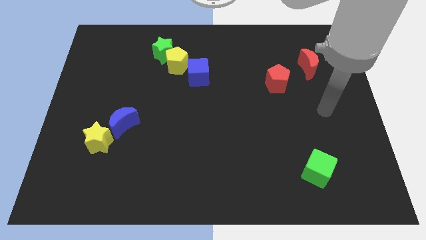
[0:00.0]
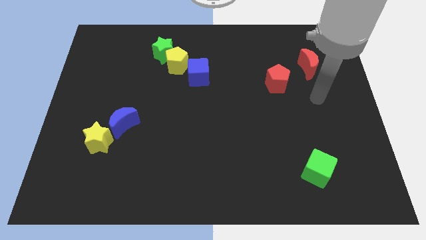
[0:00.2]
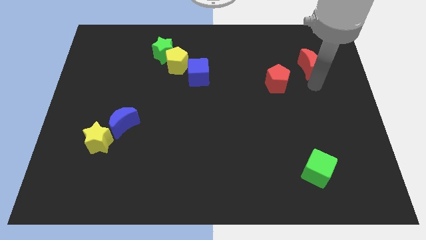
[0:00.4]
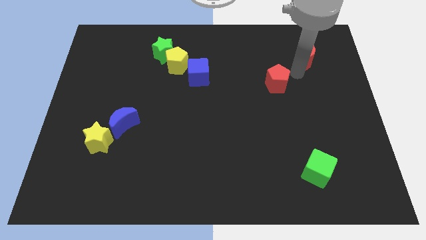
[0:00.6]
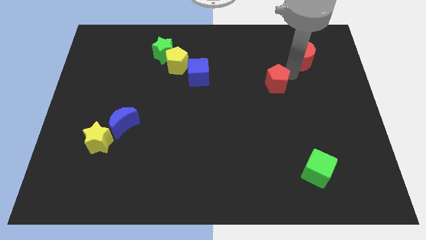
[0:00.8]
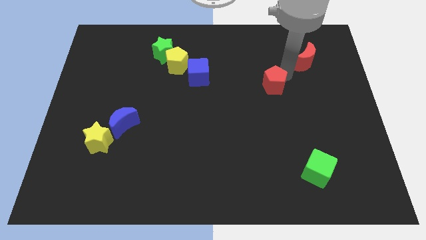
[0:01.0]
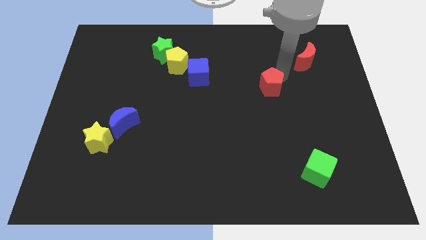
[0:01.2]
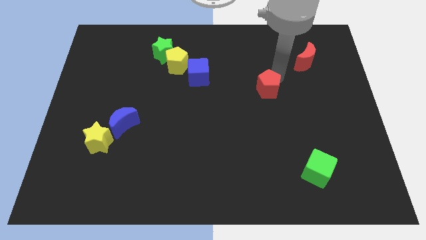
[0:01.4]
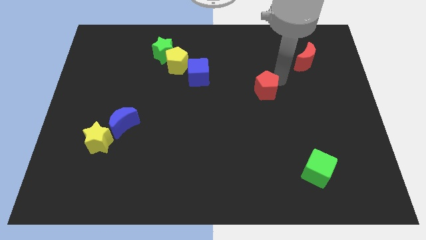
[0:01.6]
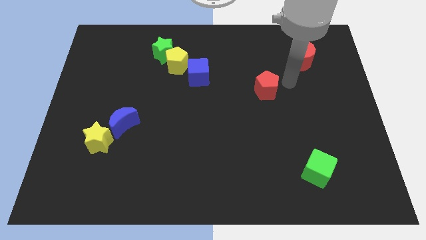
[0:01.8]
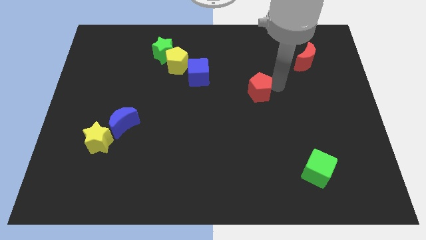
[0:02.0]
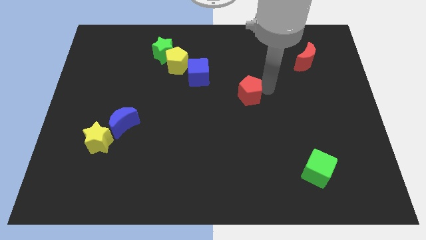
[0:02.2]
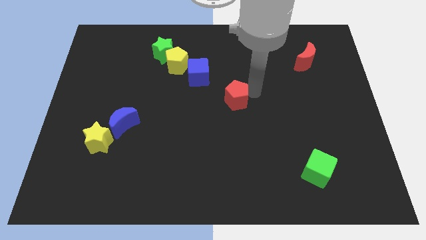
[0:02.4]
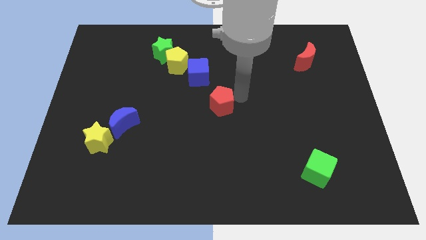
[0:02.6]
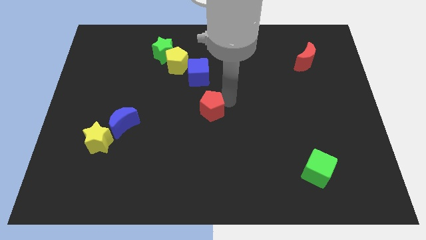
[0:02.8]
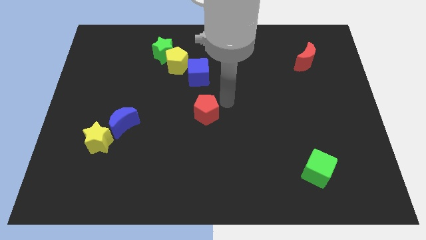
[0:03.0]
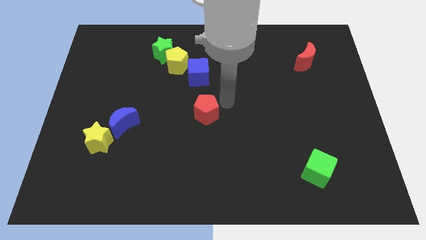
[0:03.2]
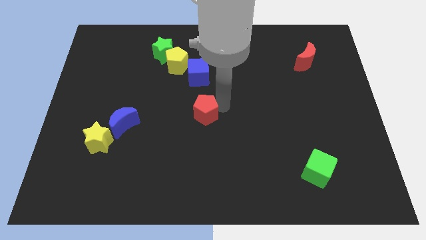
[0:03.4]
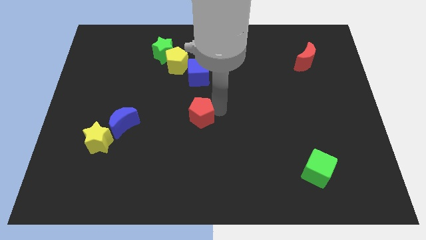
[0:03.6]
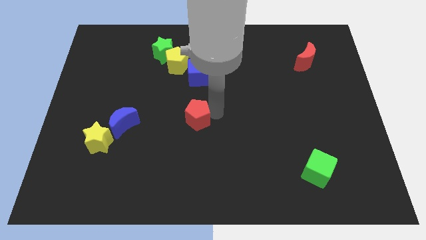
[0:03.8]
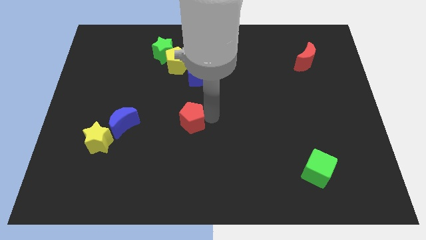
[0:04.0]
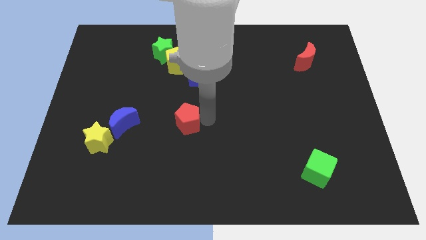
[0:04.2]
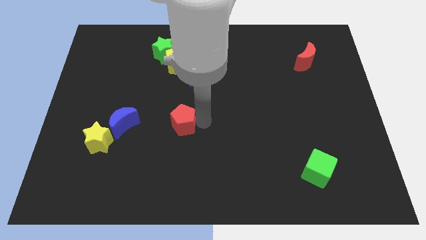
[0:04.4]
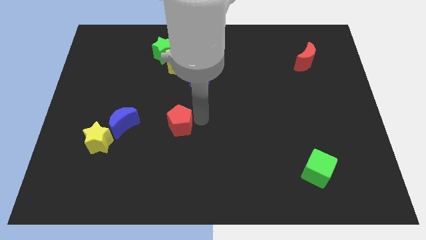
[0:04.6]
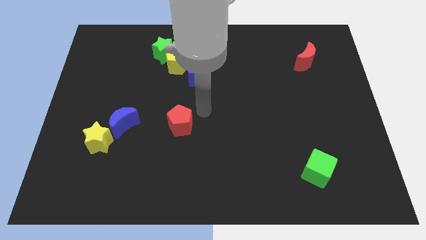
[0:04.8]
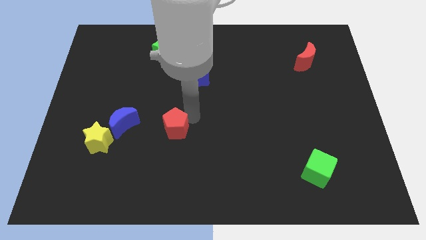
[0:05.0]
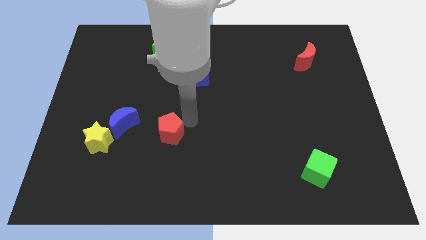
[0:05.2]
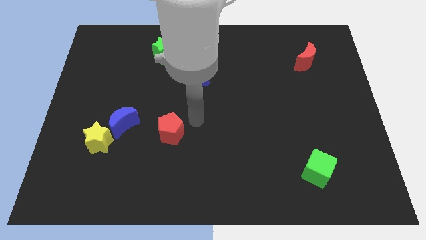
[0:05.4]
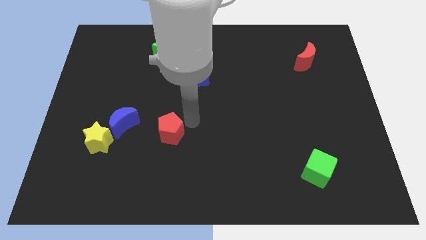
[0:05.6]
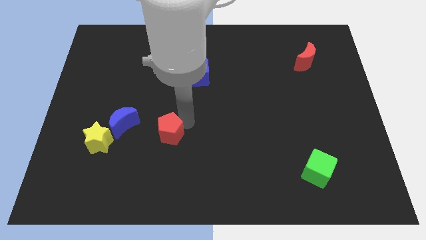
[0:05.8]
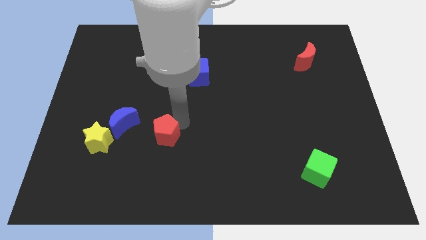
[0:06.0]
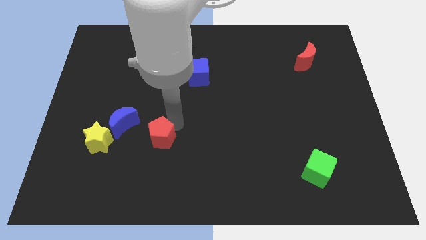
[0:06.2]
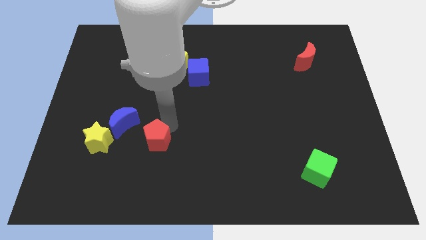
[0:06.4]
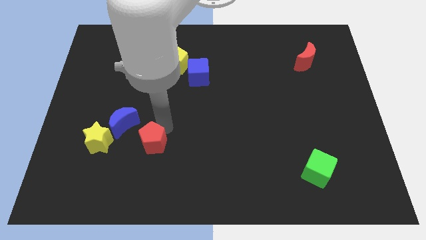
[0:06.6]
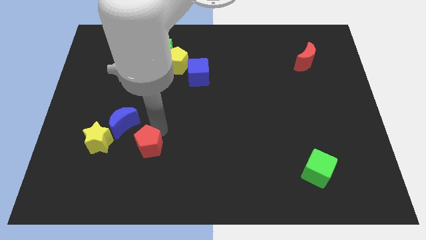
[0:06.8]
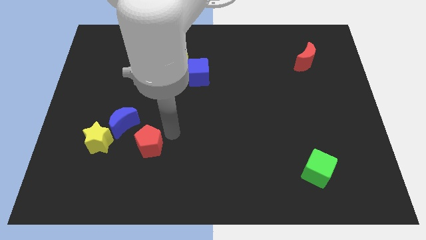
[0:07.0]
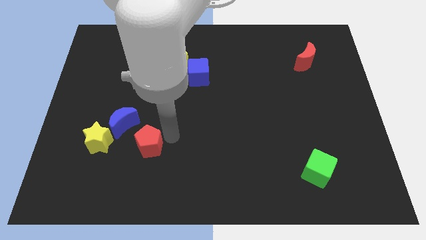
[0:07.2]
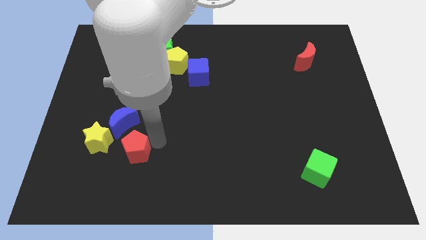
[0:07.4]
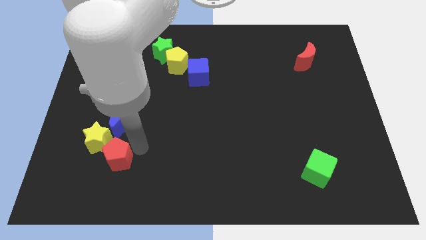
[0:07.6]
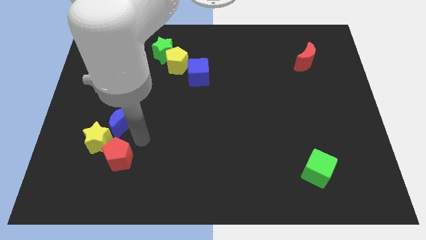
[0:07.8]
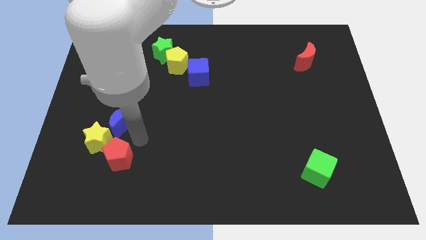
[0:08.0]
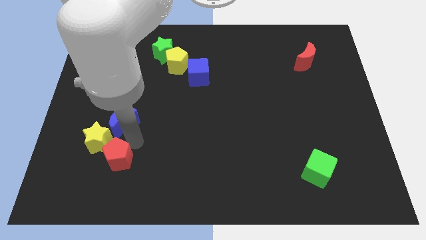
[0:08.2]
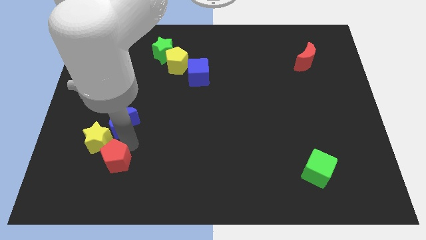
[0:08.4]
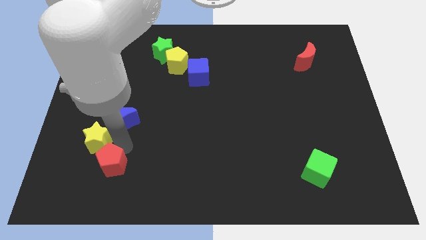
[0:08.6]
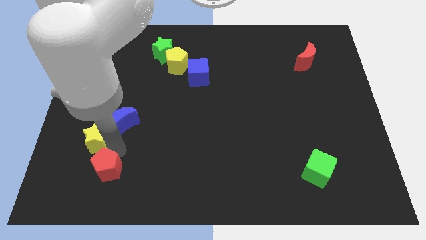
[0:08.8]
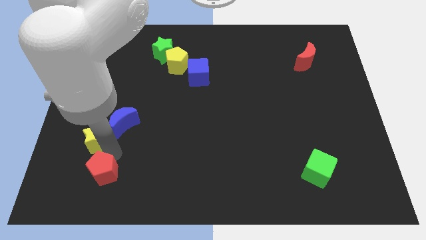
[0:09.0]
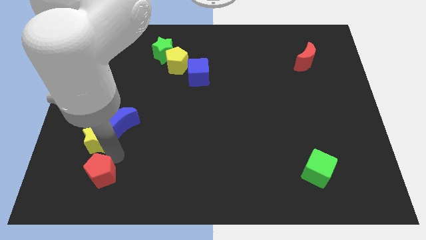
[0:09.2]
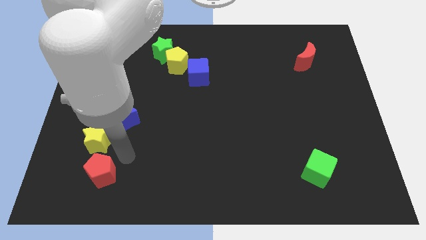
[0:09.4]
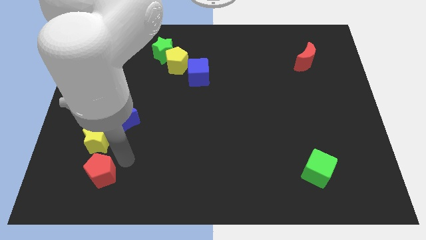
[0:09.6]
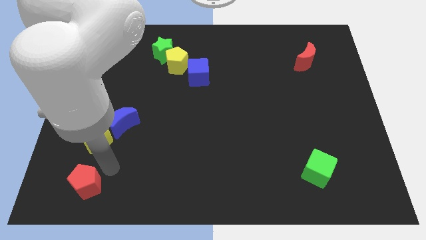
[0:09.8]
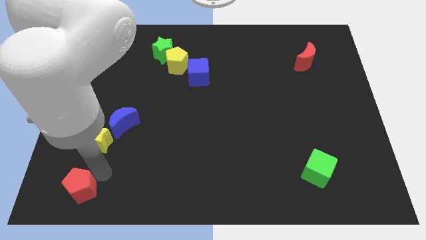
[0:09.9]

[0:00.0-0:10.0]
push the red pentagon to the lower left corner

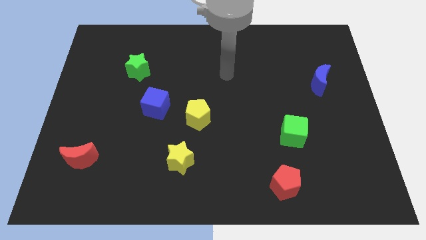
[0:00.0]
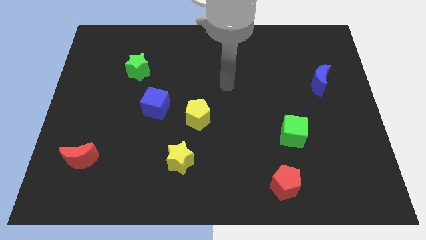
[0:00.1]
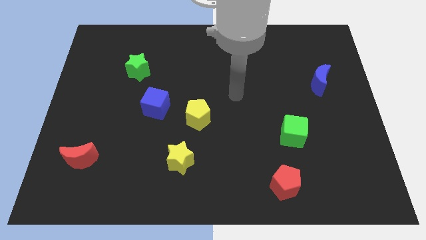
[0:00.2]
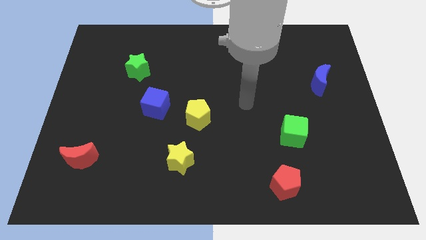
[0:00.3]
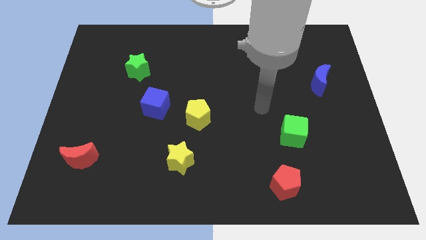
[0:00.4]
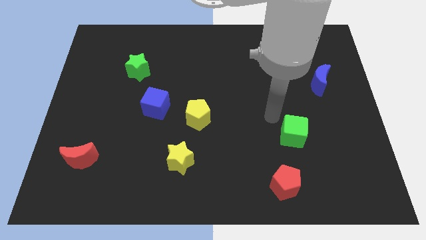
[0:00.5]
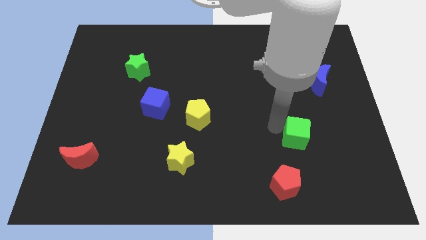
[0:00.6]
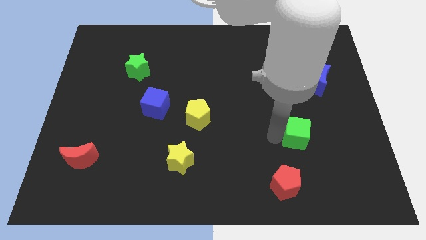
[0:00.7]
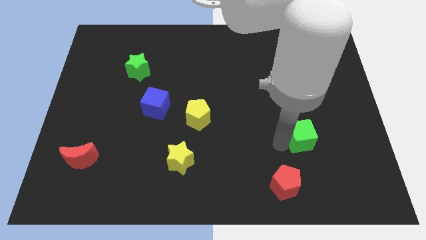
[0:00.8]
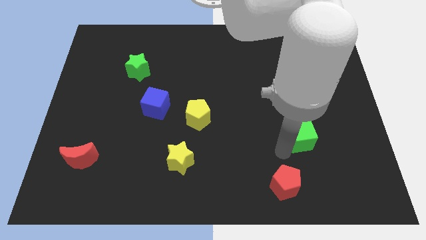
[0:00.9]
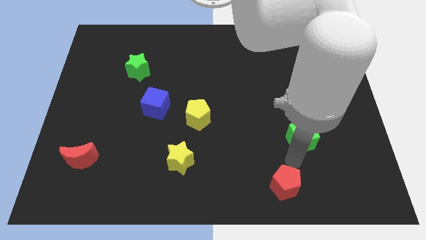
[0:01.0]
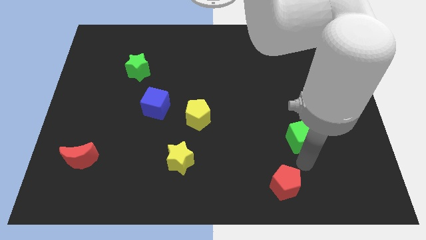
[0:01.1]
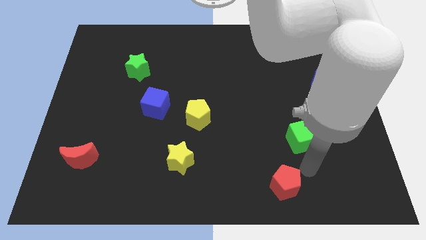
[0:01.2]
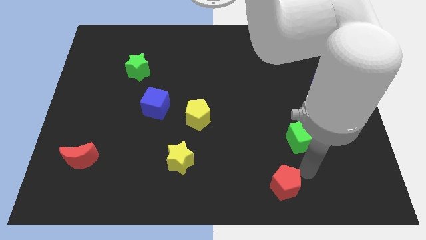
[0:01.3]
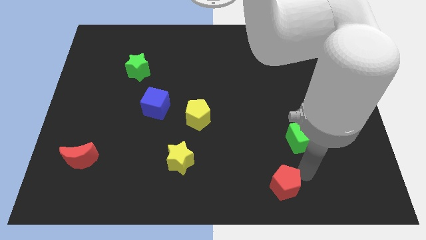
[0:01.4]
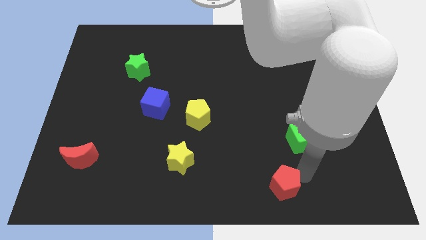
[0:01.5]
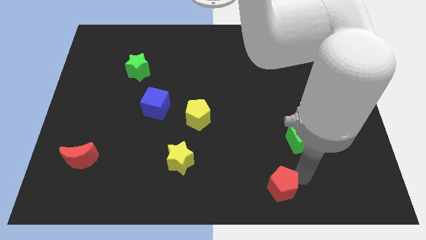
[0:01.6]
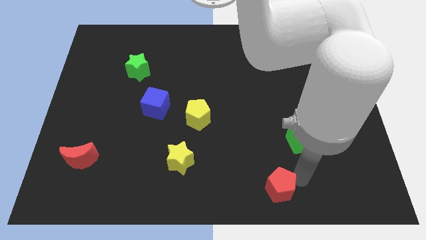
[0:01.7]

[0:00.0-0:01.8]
push the red pentagon to the bottom

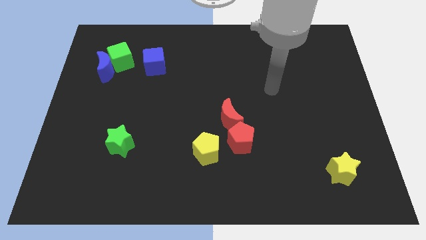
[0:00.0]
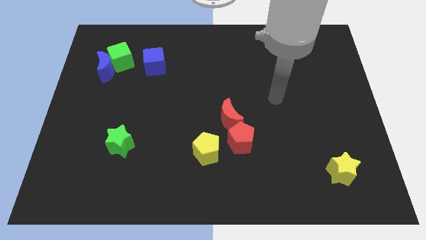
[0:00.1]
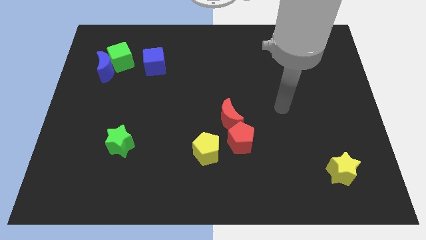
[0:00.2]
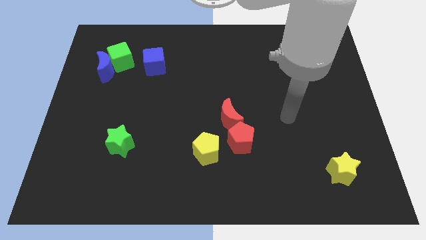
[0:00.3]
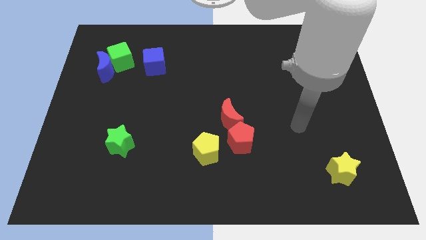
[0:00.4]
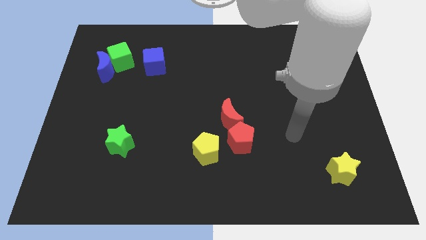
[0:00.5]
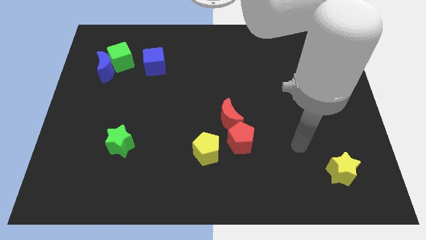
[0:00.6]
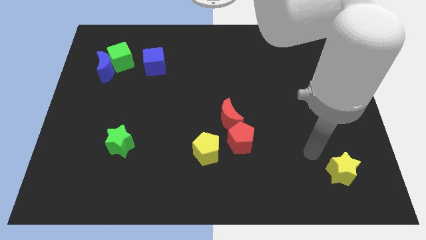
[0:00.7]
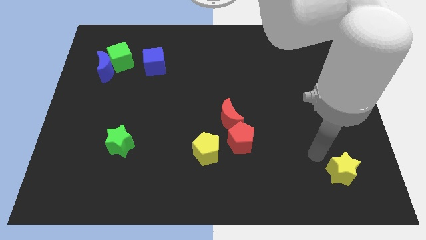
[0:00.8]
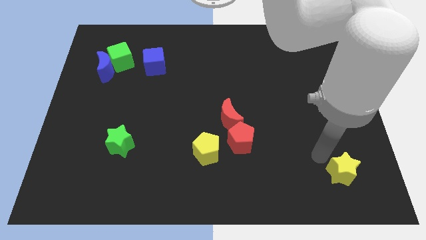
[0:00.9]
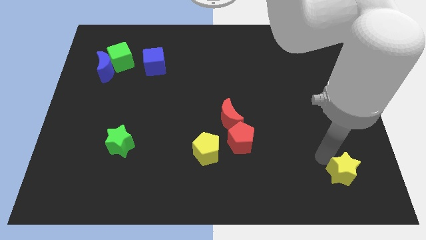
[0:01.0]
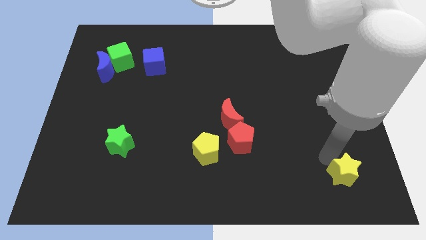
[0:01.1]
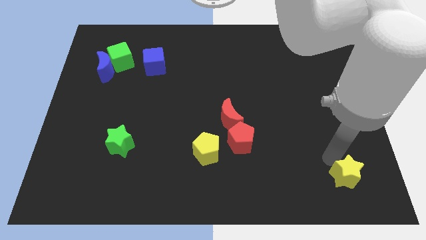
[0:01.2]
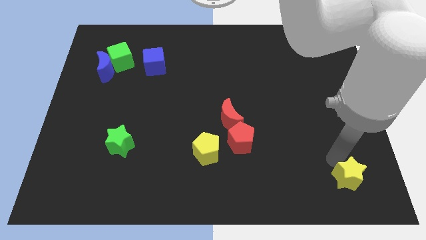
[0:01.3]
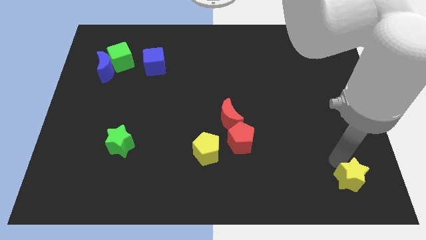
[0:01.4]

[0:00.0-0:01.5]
push the yellow star to the bottom right corner
